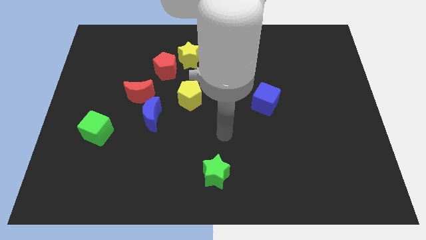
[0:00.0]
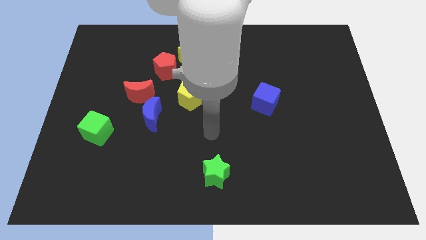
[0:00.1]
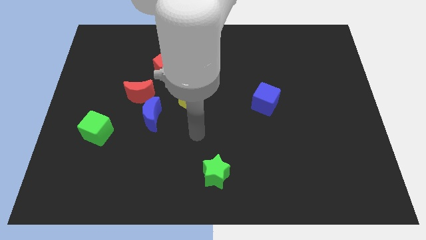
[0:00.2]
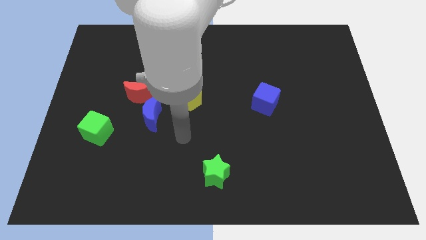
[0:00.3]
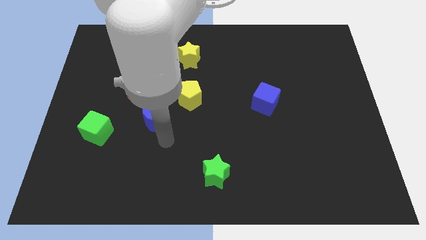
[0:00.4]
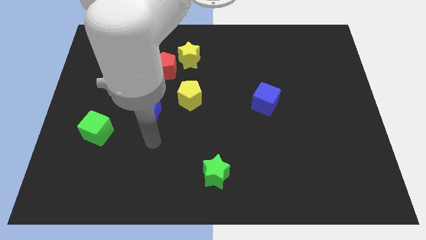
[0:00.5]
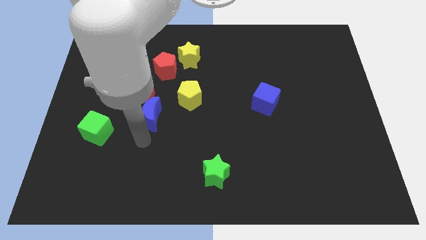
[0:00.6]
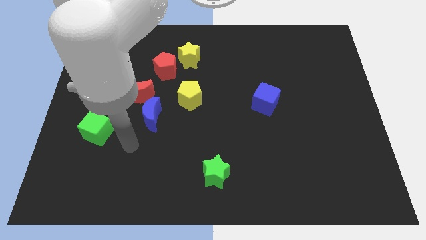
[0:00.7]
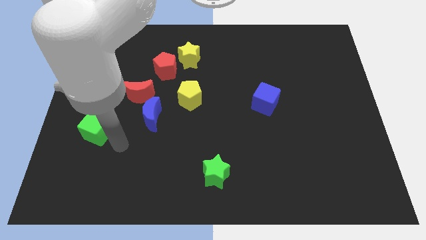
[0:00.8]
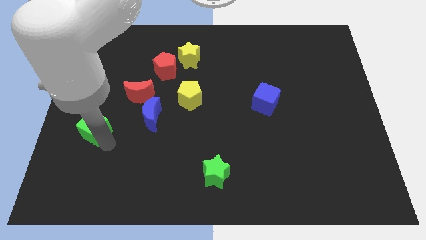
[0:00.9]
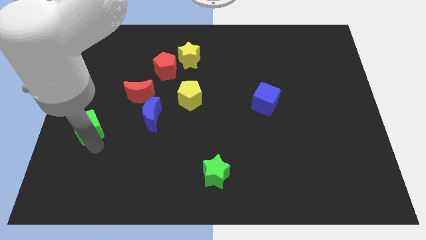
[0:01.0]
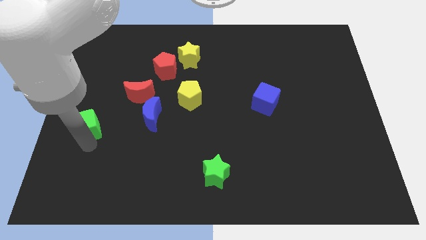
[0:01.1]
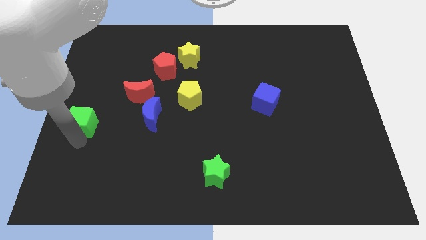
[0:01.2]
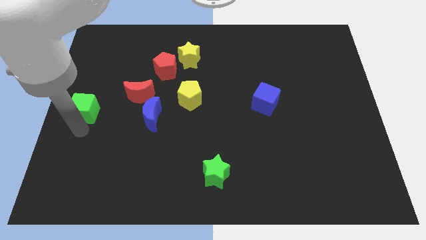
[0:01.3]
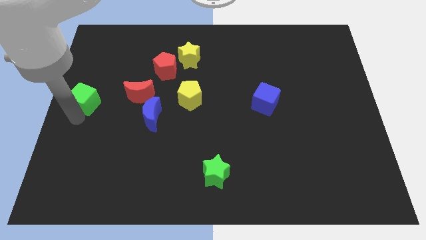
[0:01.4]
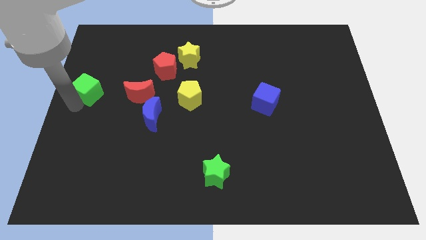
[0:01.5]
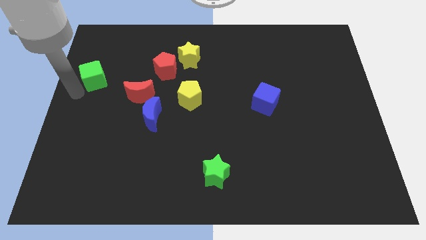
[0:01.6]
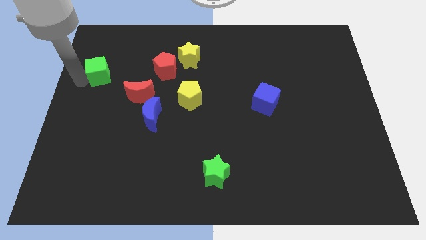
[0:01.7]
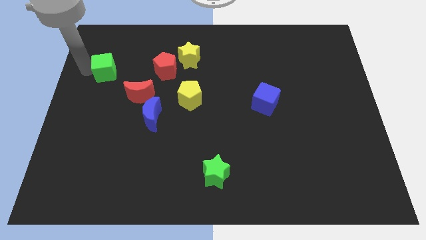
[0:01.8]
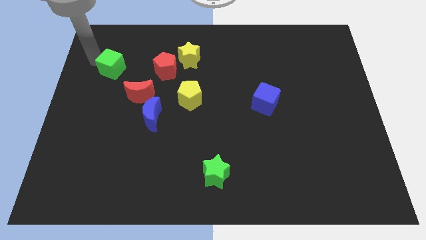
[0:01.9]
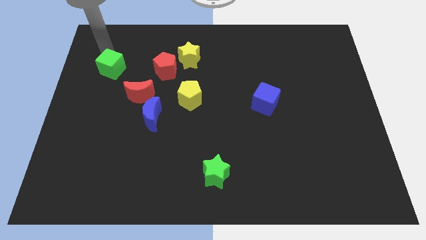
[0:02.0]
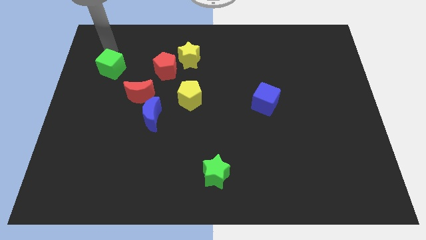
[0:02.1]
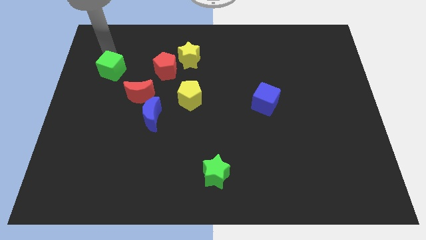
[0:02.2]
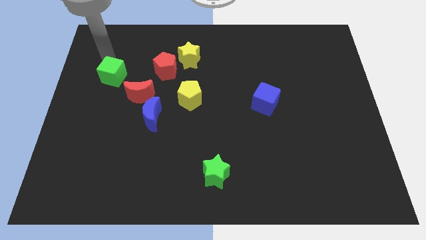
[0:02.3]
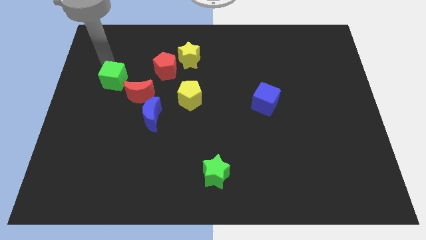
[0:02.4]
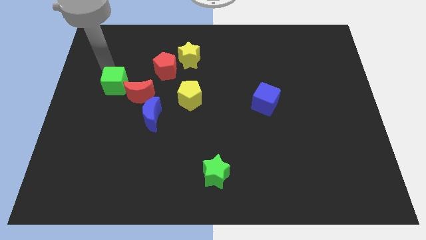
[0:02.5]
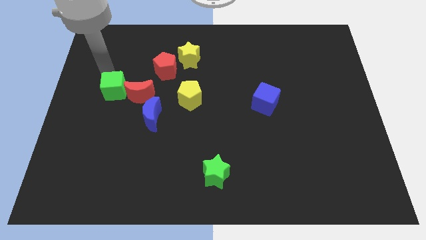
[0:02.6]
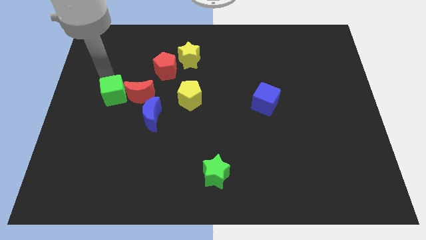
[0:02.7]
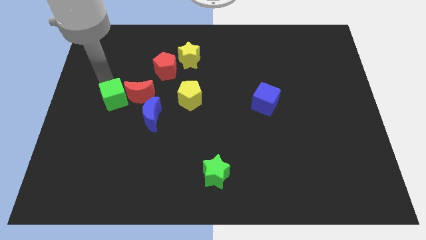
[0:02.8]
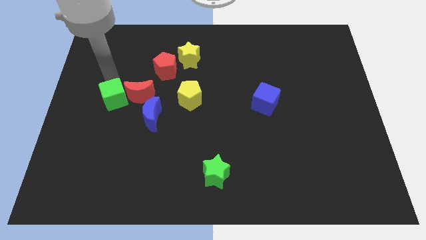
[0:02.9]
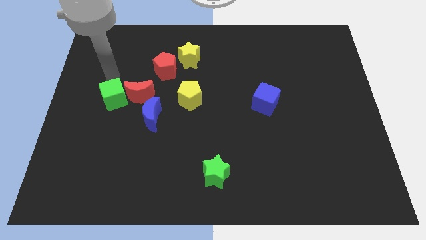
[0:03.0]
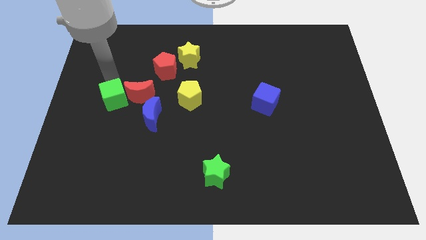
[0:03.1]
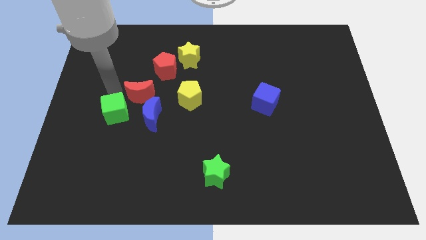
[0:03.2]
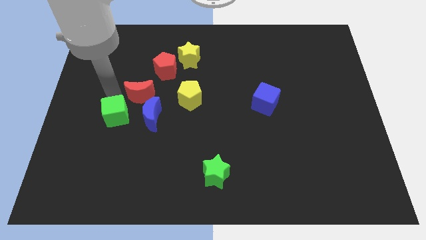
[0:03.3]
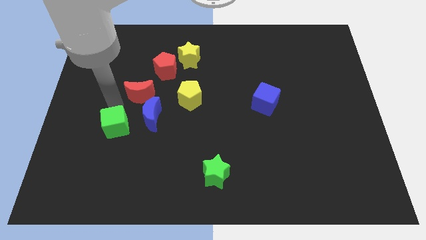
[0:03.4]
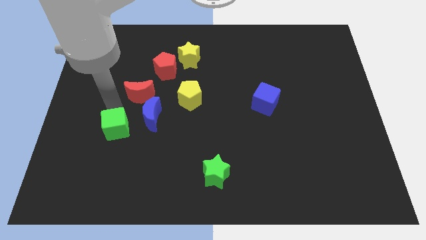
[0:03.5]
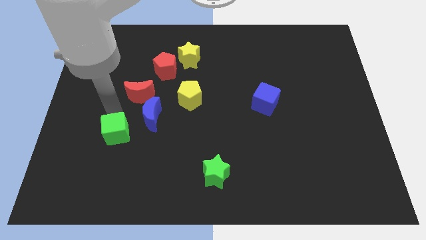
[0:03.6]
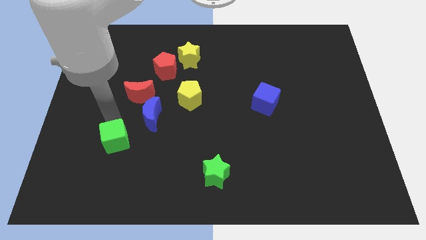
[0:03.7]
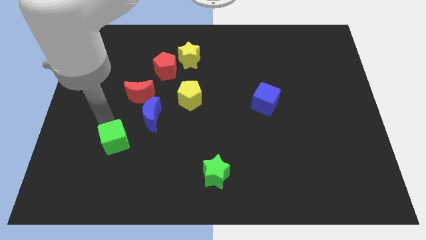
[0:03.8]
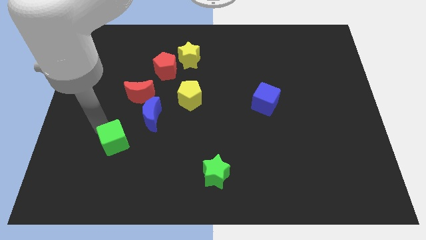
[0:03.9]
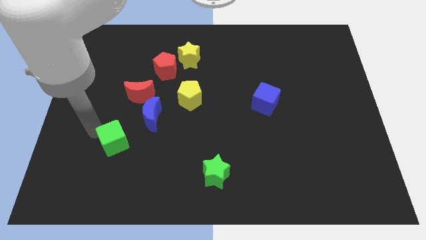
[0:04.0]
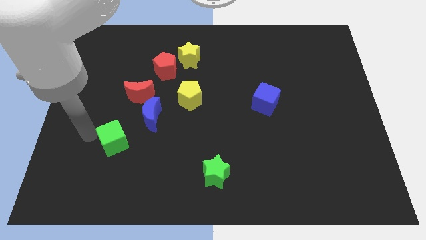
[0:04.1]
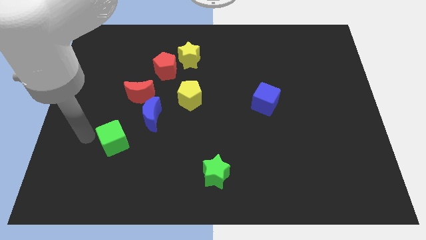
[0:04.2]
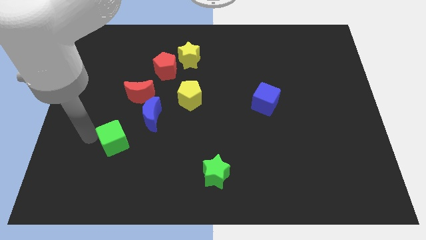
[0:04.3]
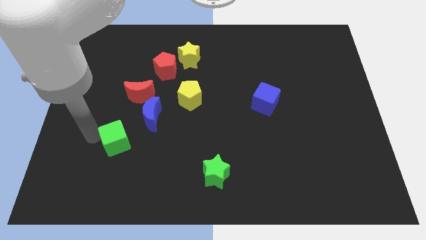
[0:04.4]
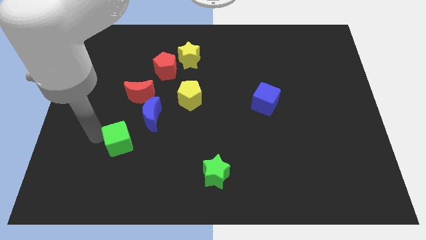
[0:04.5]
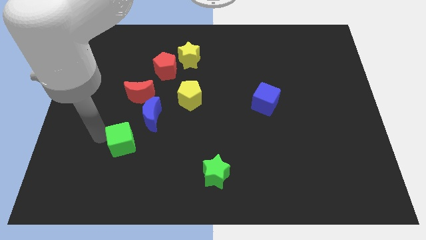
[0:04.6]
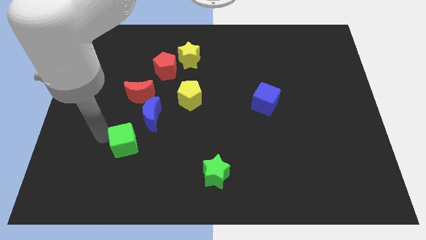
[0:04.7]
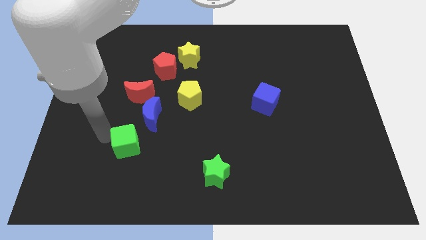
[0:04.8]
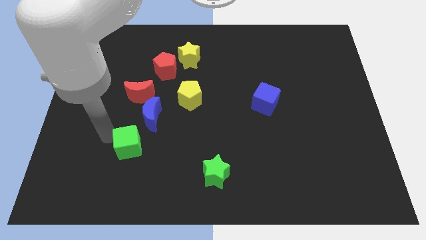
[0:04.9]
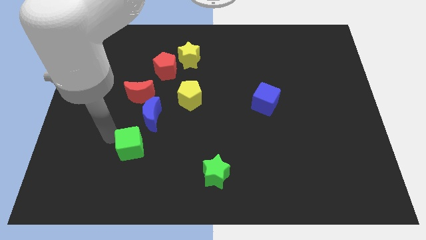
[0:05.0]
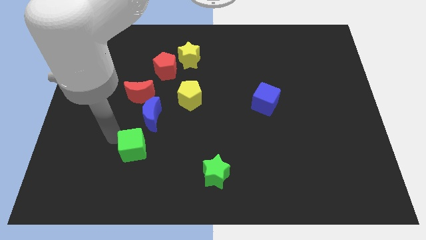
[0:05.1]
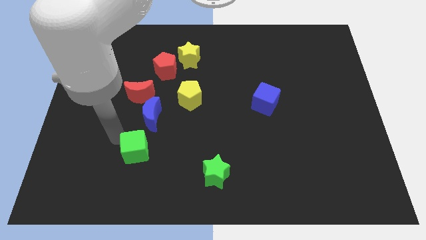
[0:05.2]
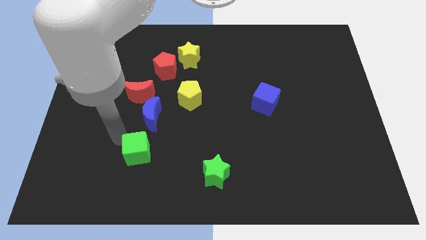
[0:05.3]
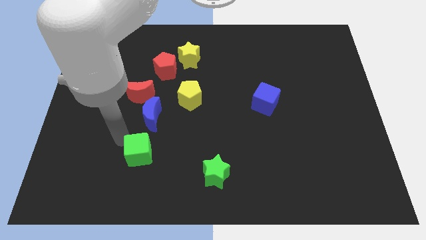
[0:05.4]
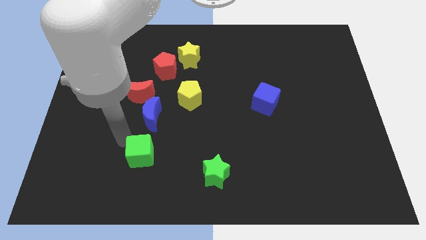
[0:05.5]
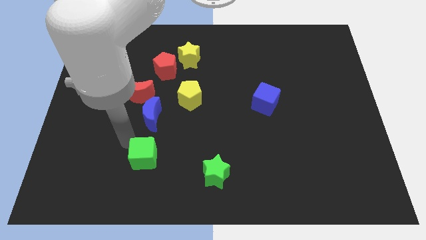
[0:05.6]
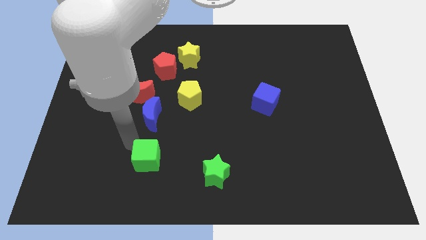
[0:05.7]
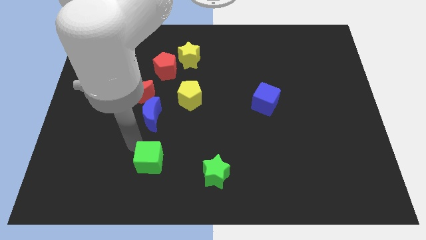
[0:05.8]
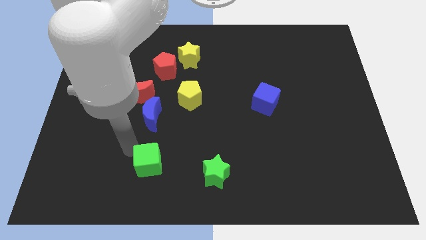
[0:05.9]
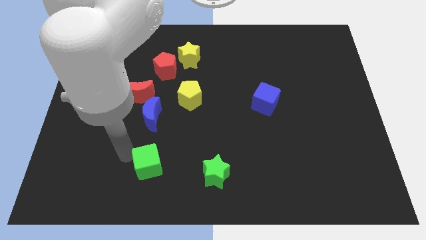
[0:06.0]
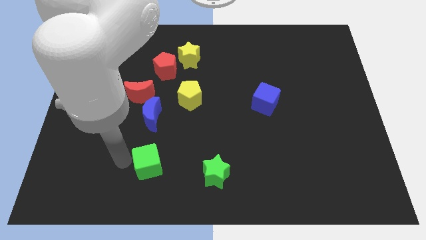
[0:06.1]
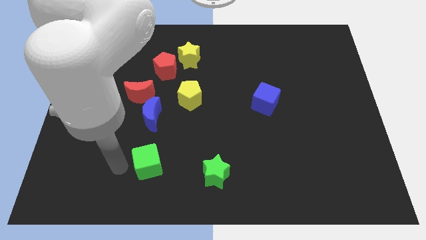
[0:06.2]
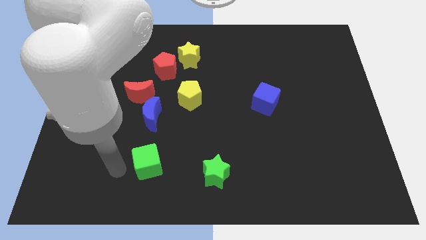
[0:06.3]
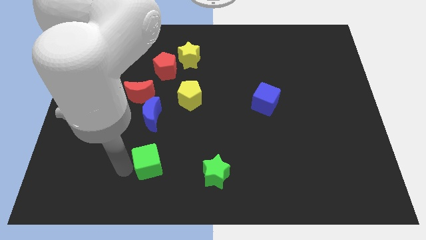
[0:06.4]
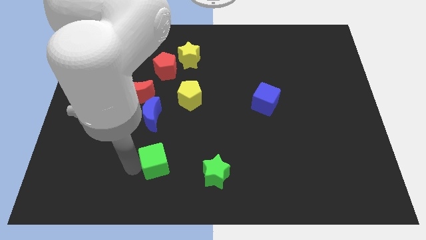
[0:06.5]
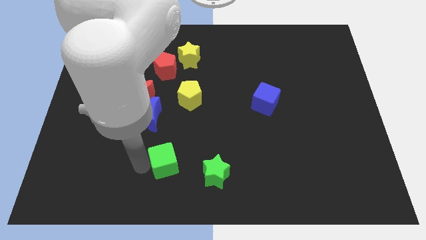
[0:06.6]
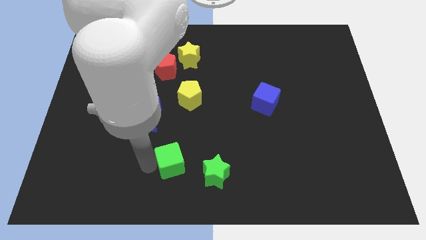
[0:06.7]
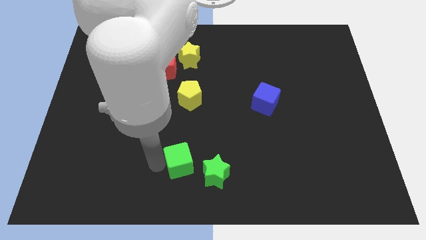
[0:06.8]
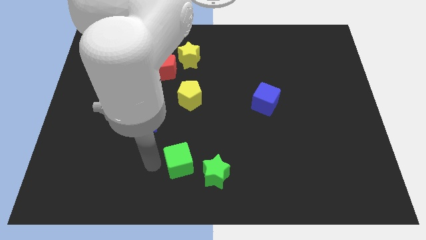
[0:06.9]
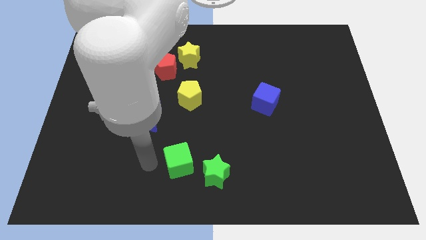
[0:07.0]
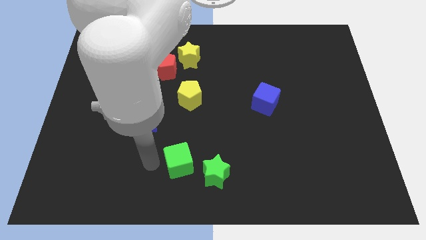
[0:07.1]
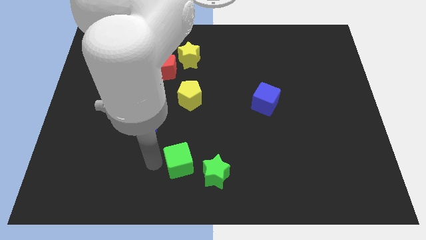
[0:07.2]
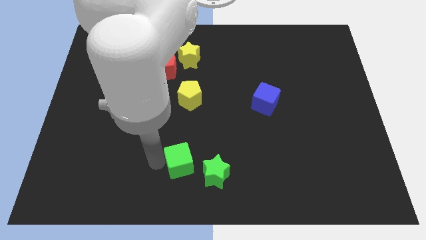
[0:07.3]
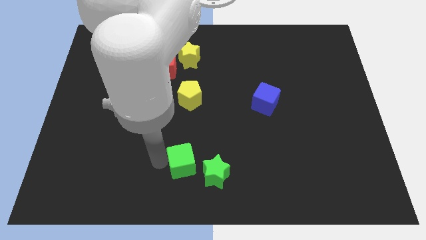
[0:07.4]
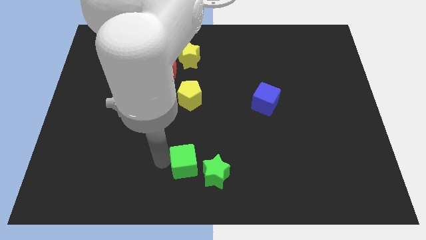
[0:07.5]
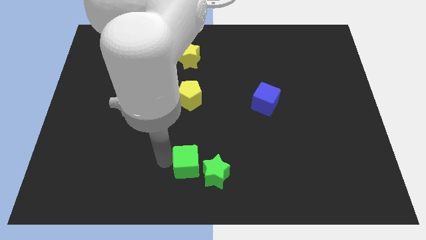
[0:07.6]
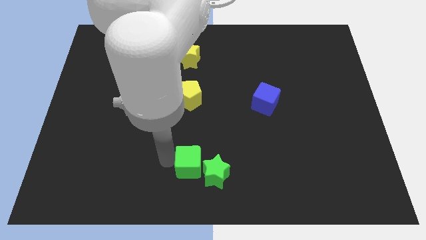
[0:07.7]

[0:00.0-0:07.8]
put the green cube towards the green star
